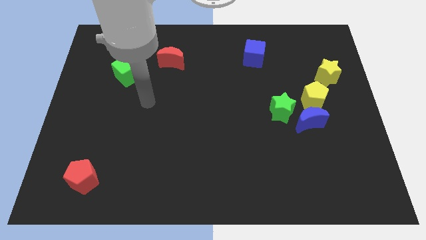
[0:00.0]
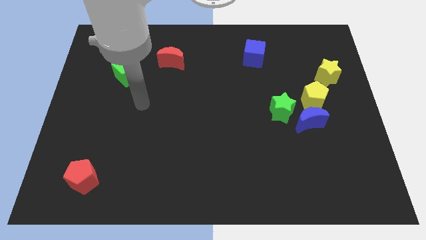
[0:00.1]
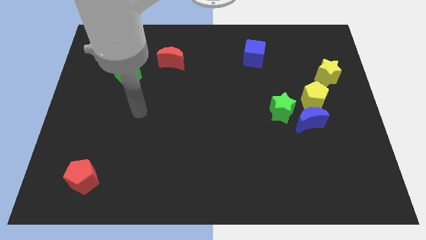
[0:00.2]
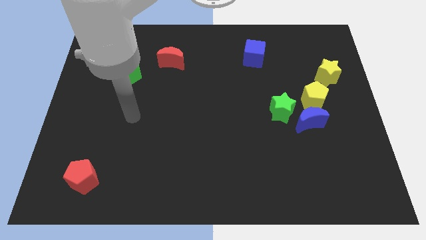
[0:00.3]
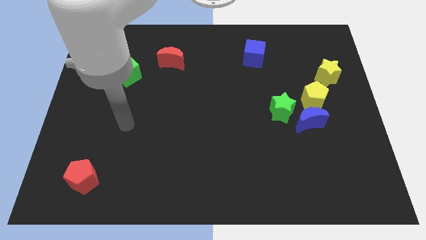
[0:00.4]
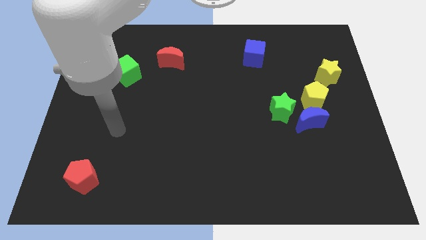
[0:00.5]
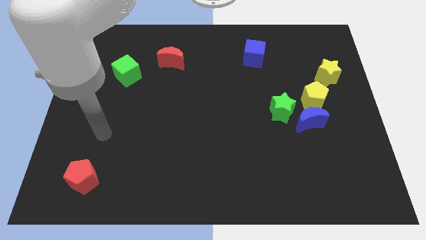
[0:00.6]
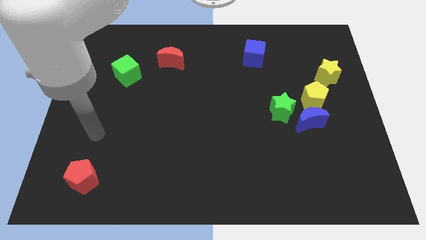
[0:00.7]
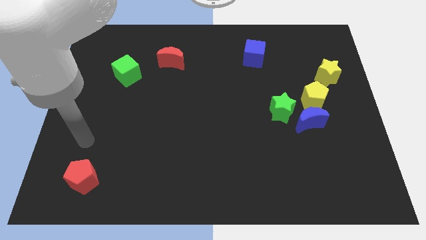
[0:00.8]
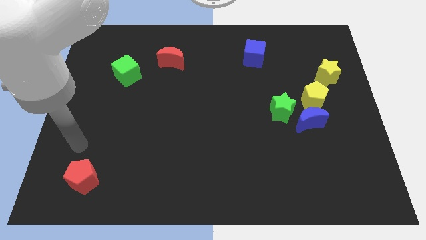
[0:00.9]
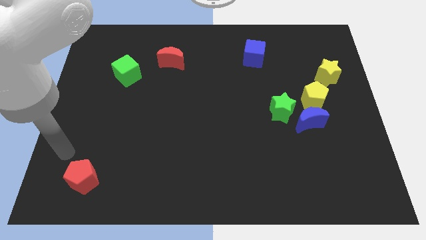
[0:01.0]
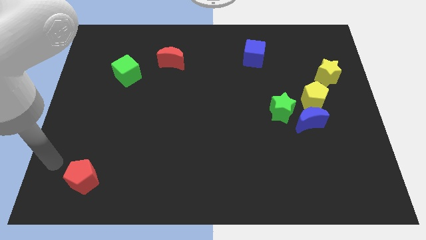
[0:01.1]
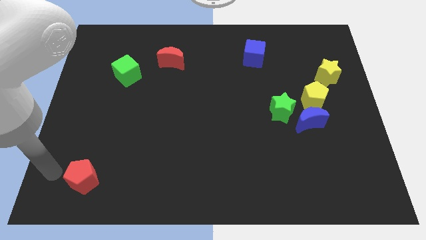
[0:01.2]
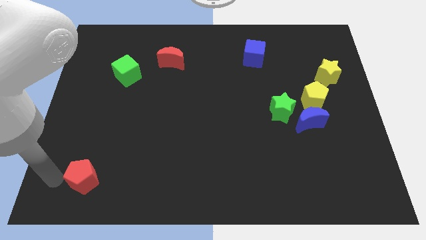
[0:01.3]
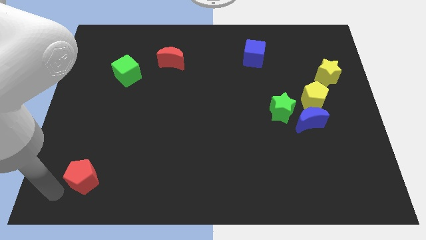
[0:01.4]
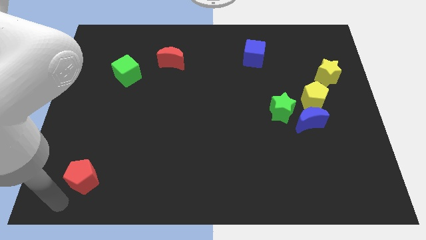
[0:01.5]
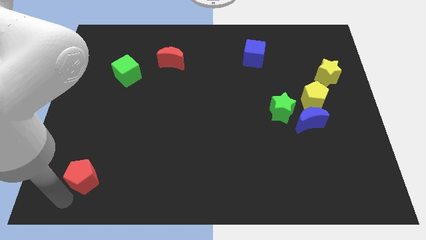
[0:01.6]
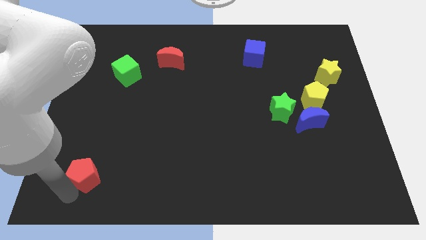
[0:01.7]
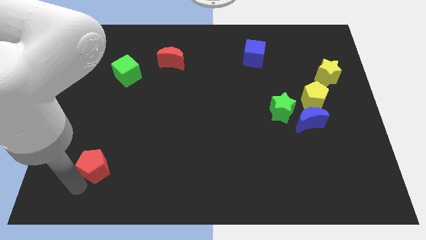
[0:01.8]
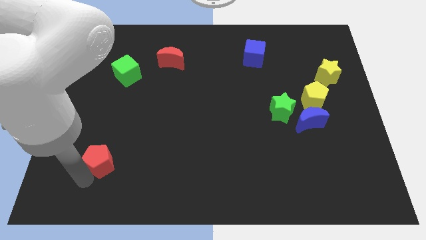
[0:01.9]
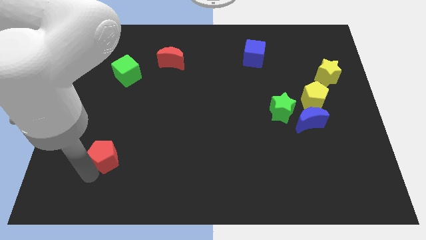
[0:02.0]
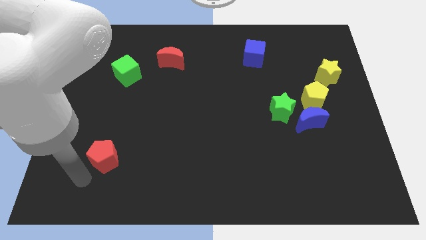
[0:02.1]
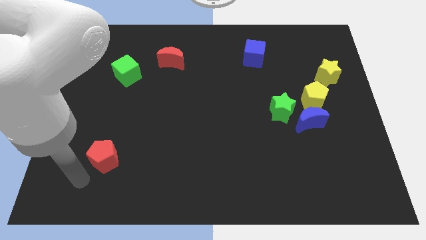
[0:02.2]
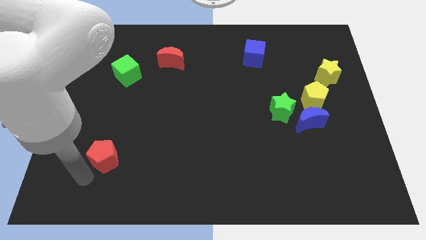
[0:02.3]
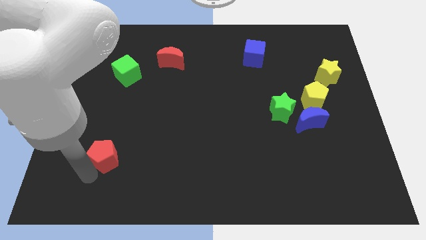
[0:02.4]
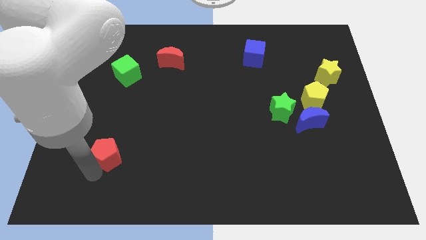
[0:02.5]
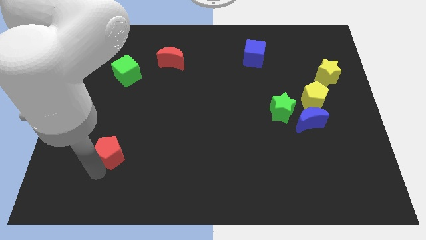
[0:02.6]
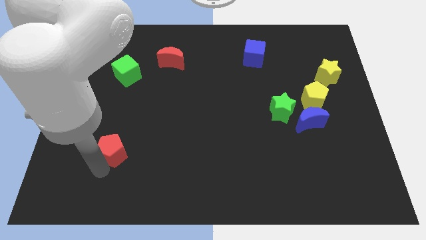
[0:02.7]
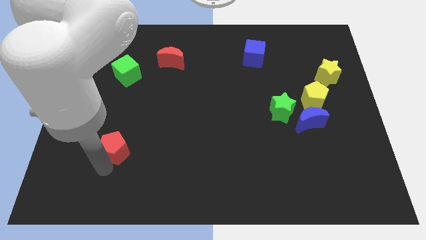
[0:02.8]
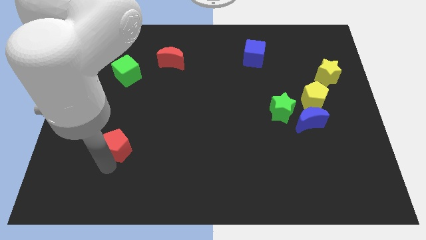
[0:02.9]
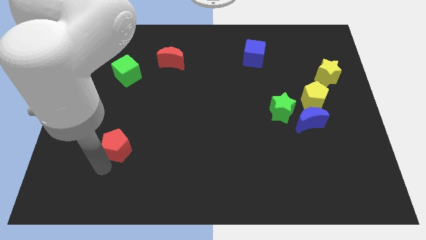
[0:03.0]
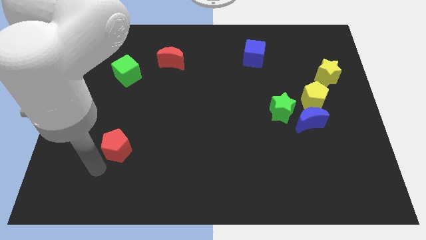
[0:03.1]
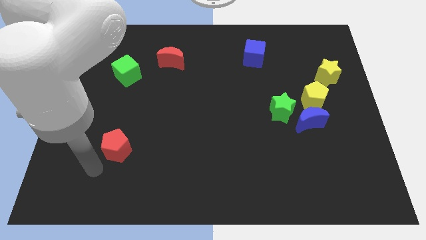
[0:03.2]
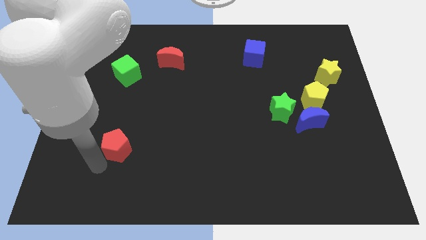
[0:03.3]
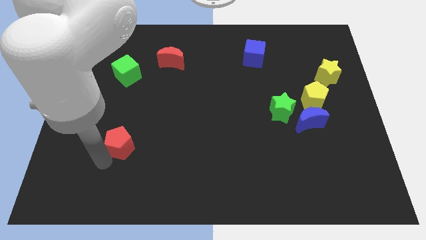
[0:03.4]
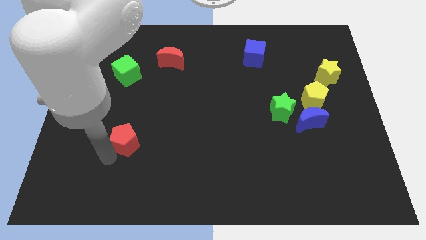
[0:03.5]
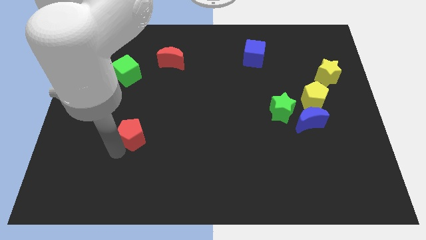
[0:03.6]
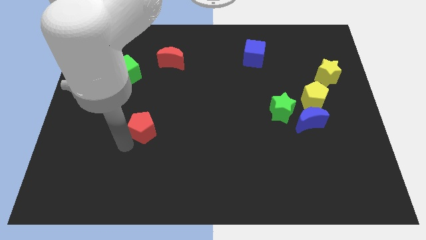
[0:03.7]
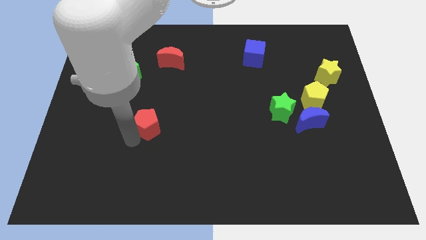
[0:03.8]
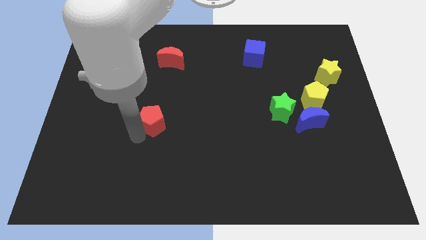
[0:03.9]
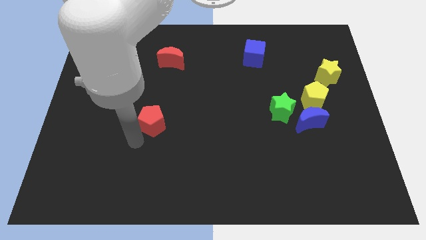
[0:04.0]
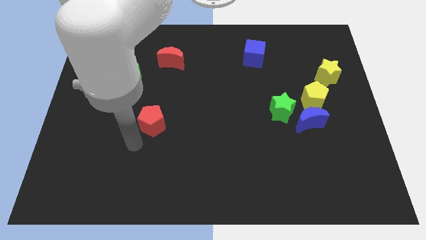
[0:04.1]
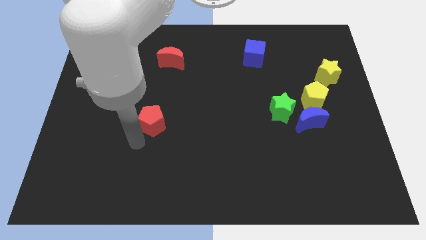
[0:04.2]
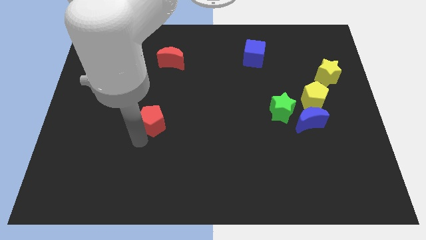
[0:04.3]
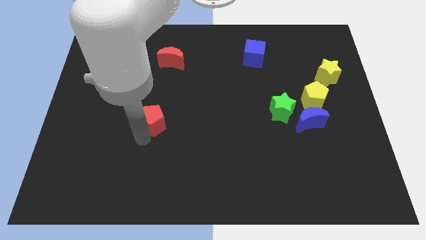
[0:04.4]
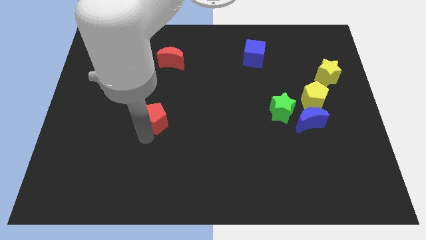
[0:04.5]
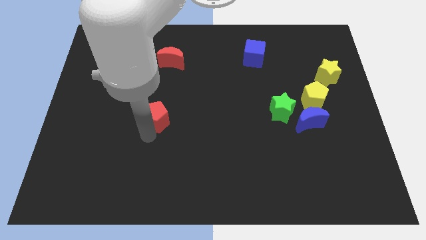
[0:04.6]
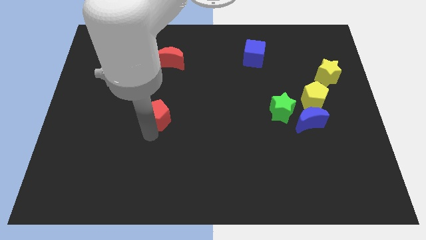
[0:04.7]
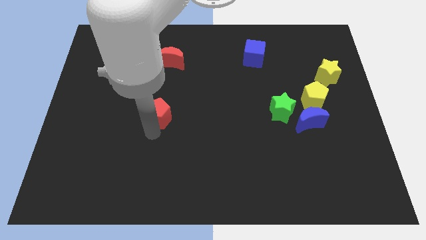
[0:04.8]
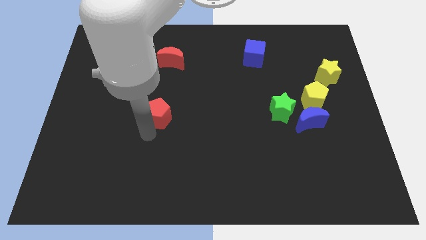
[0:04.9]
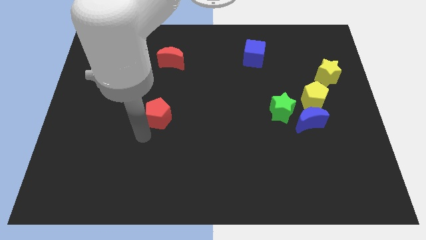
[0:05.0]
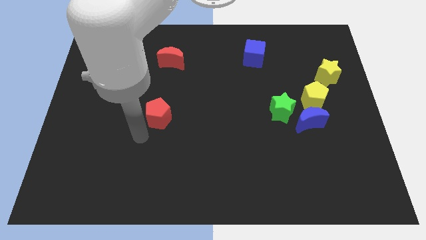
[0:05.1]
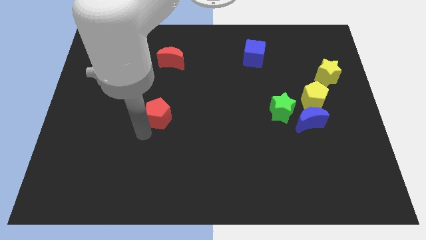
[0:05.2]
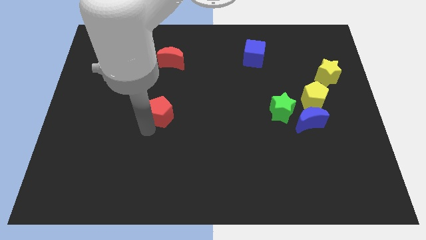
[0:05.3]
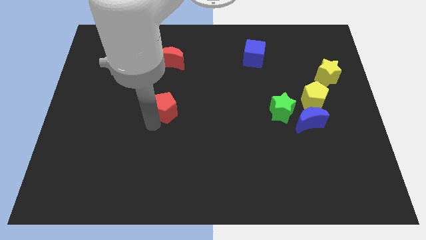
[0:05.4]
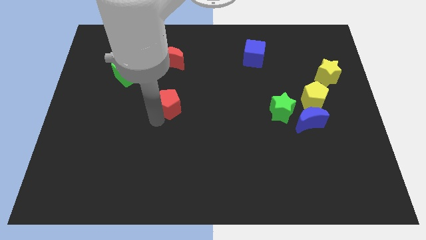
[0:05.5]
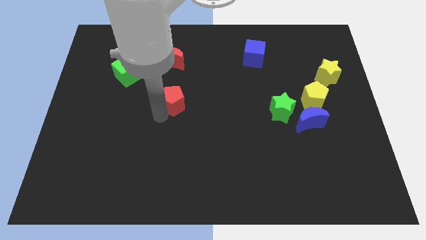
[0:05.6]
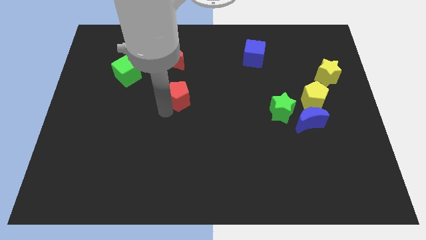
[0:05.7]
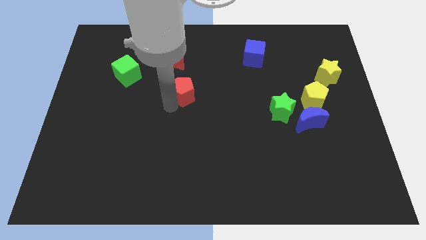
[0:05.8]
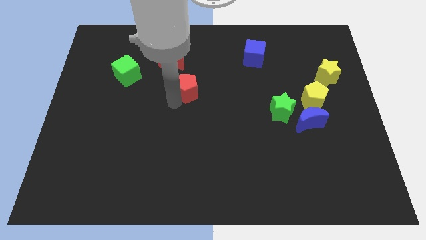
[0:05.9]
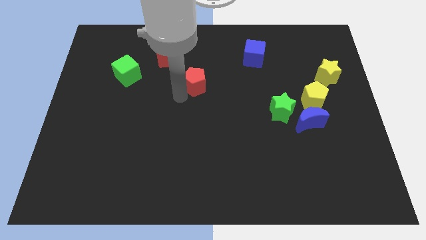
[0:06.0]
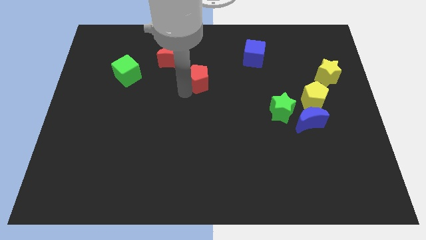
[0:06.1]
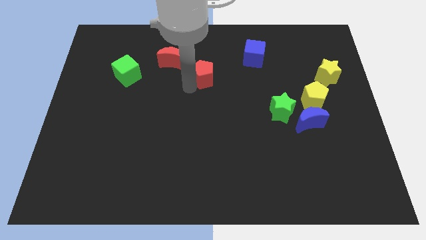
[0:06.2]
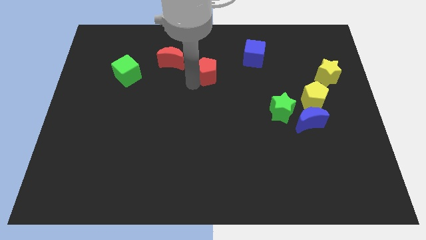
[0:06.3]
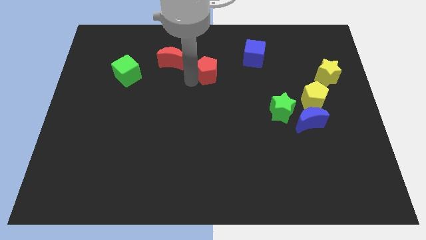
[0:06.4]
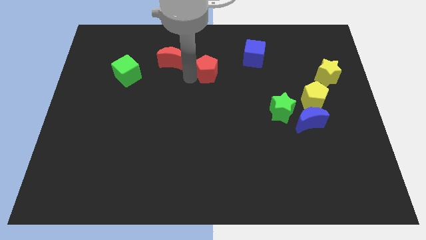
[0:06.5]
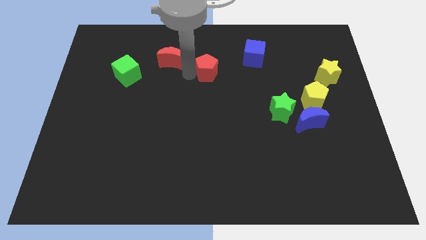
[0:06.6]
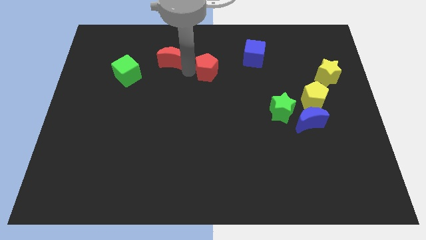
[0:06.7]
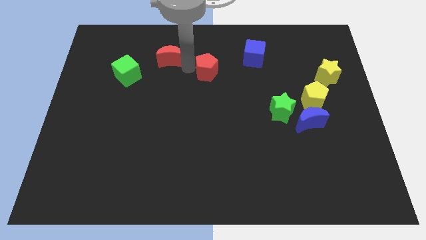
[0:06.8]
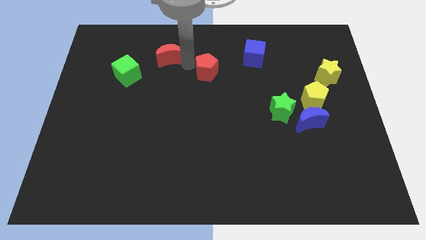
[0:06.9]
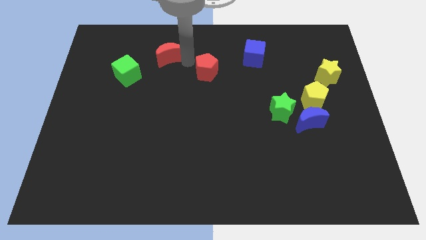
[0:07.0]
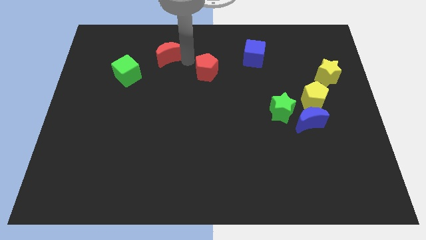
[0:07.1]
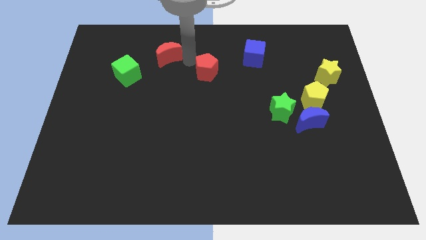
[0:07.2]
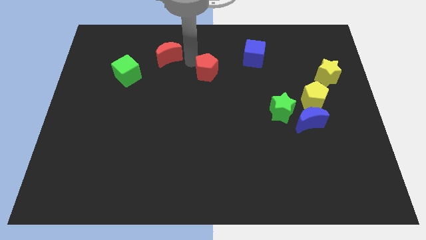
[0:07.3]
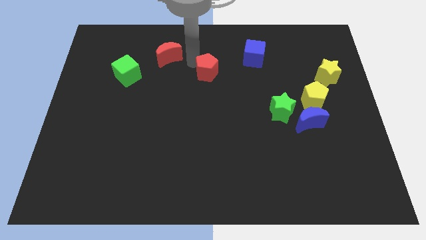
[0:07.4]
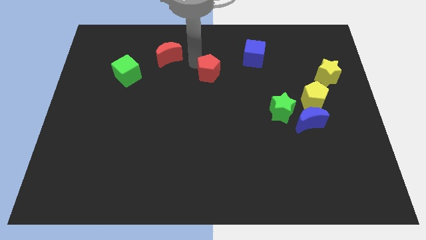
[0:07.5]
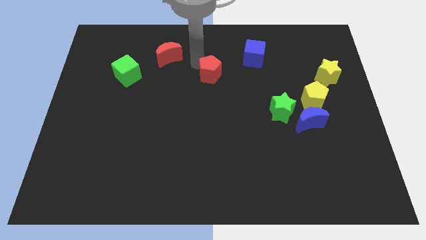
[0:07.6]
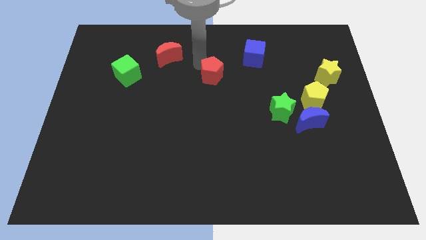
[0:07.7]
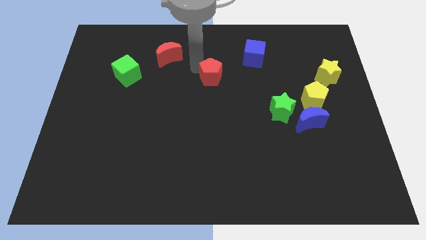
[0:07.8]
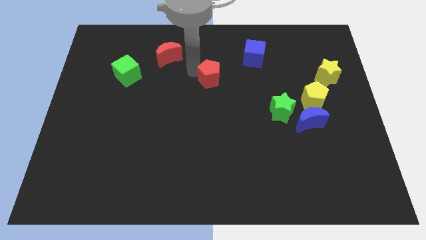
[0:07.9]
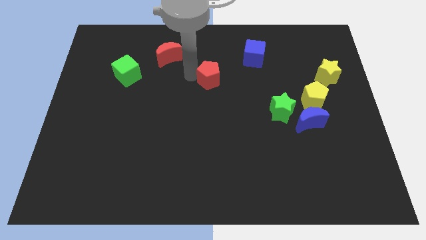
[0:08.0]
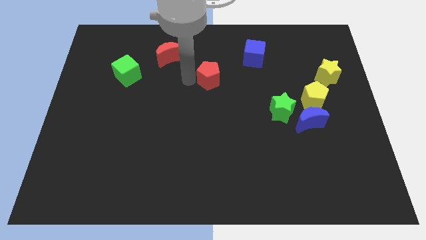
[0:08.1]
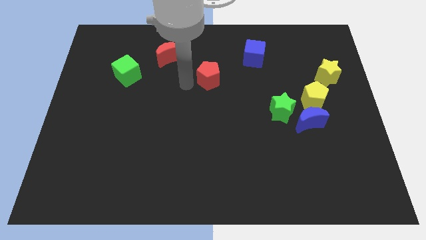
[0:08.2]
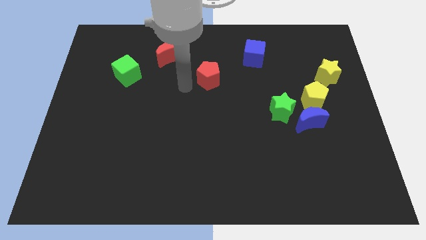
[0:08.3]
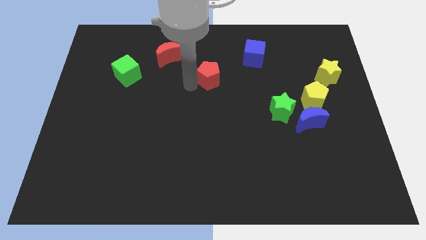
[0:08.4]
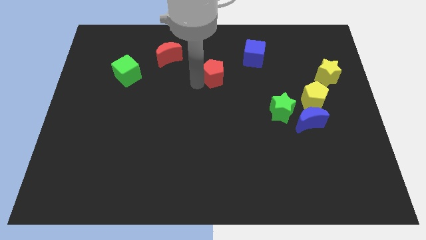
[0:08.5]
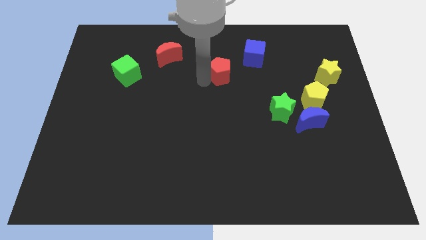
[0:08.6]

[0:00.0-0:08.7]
slide the red pentagon diagonally down and to the left of the blue cube
